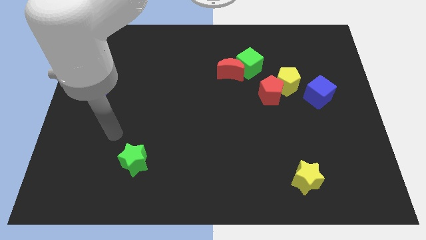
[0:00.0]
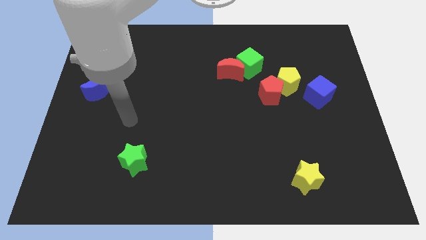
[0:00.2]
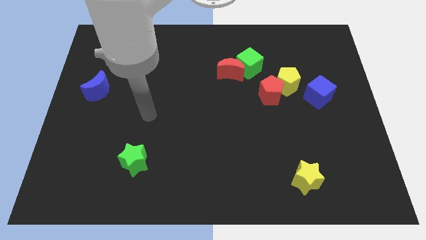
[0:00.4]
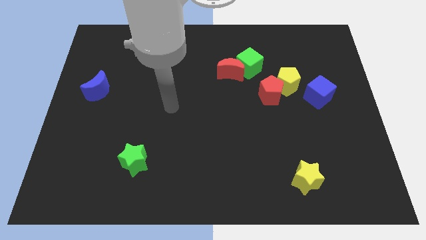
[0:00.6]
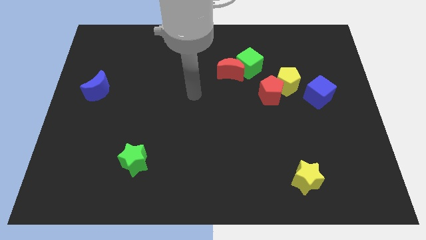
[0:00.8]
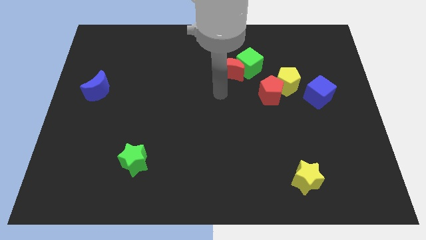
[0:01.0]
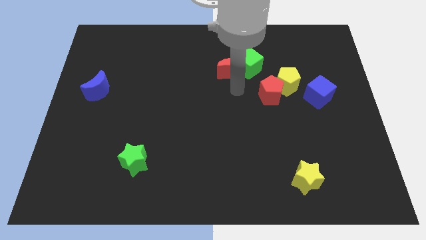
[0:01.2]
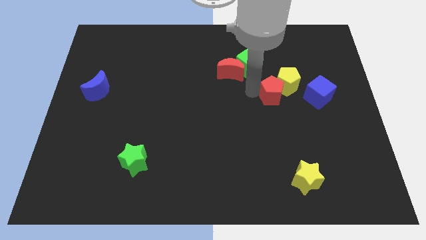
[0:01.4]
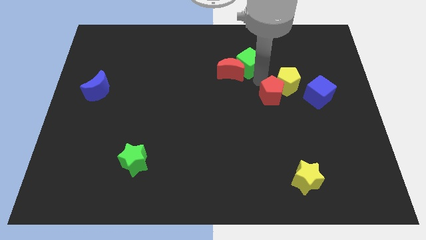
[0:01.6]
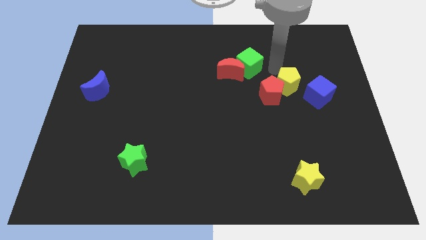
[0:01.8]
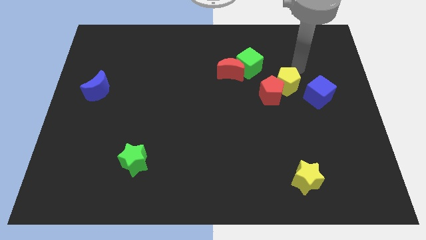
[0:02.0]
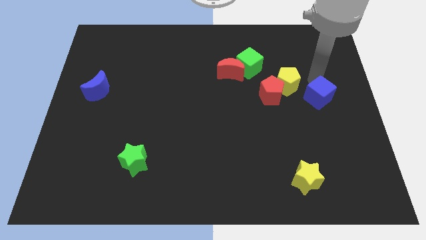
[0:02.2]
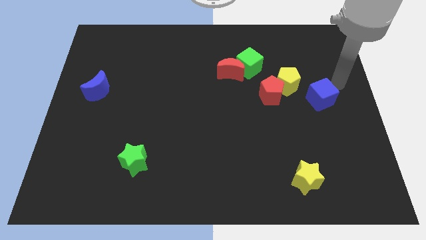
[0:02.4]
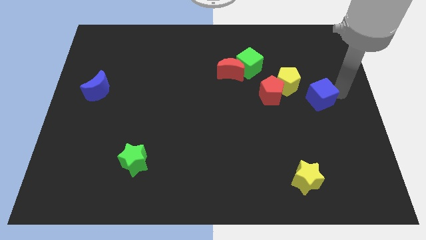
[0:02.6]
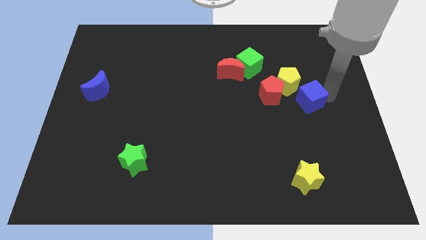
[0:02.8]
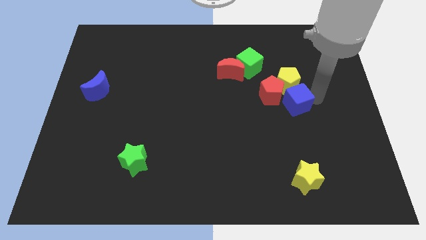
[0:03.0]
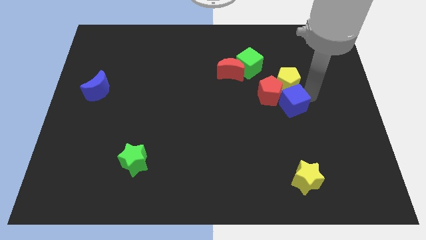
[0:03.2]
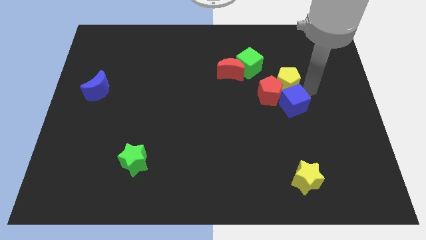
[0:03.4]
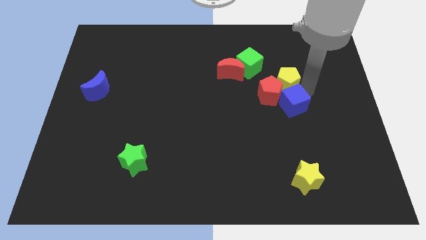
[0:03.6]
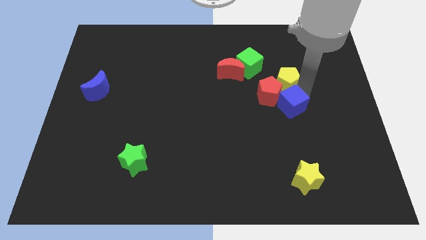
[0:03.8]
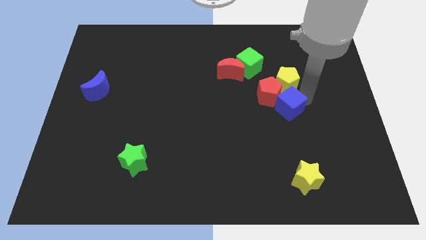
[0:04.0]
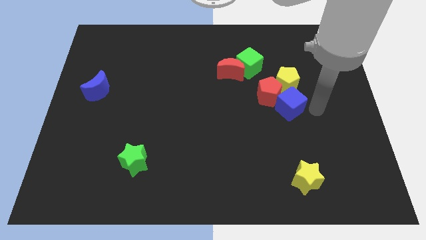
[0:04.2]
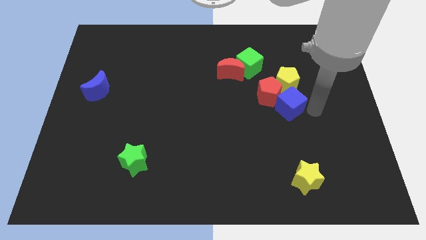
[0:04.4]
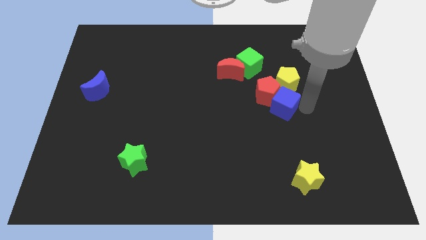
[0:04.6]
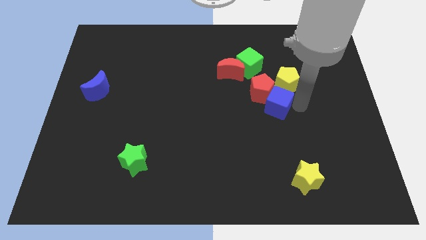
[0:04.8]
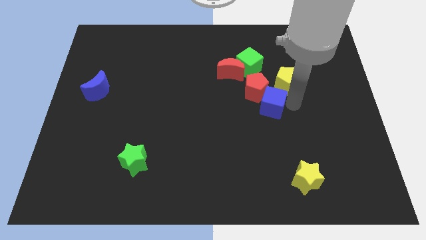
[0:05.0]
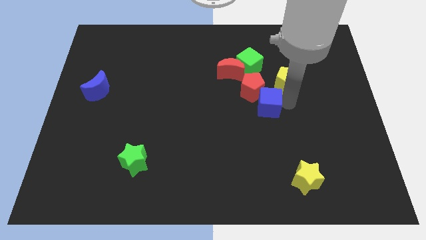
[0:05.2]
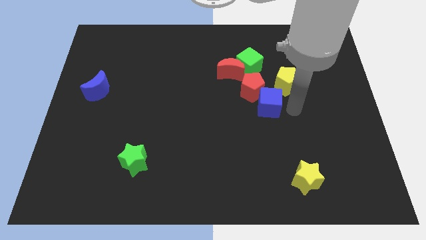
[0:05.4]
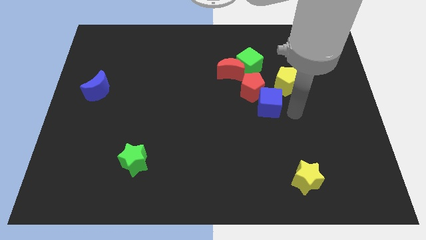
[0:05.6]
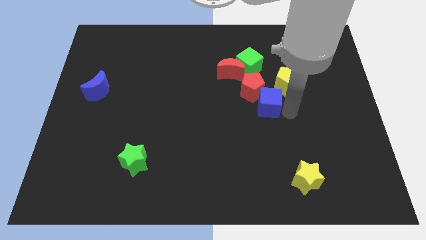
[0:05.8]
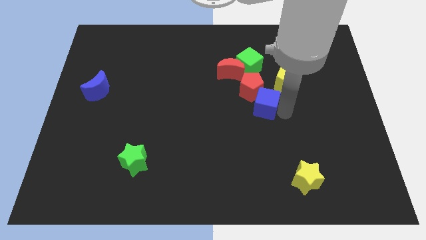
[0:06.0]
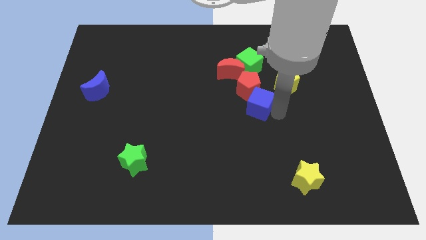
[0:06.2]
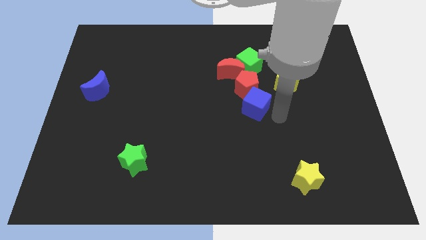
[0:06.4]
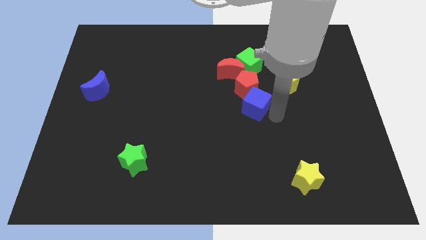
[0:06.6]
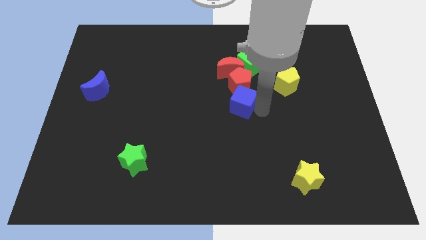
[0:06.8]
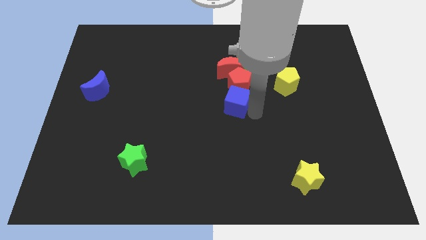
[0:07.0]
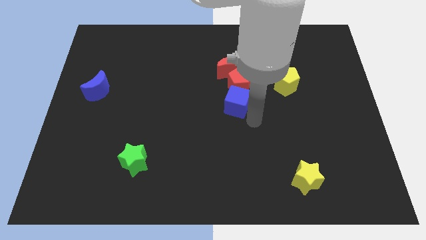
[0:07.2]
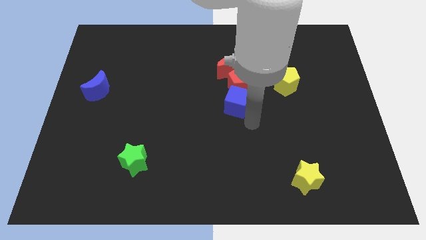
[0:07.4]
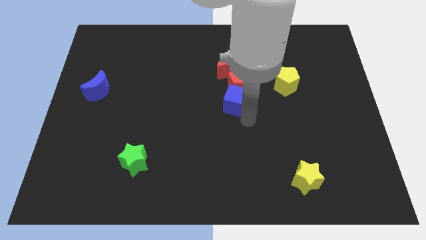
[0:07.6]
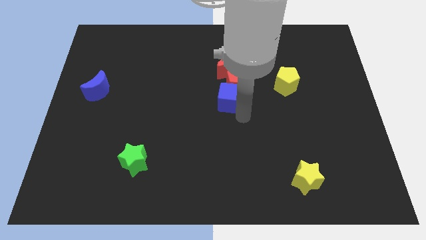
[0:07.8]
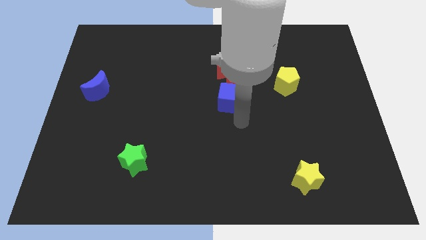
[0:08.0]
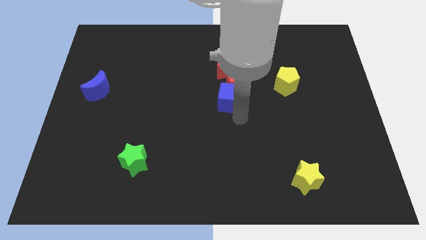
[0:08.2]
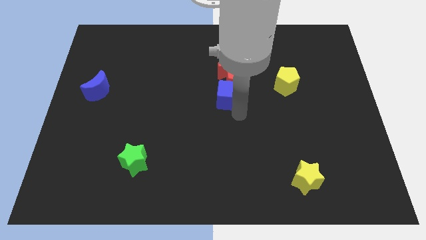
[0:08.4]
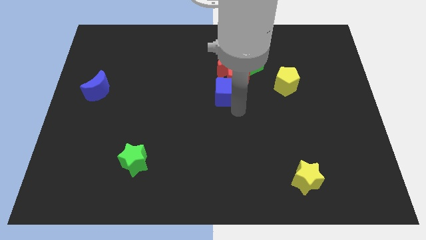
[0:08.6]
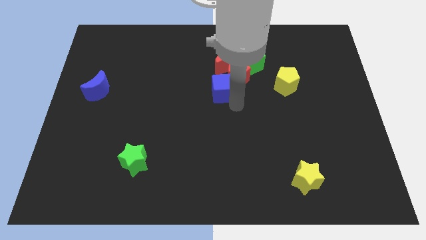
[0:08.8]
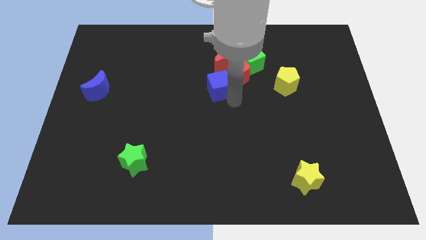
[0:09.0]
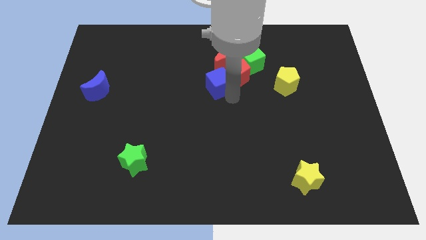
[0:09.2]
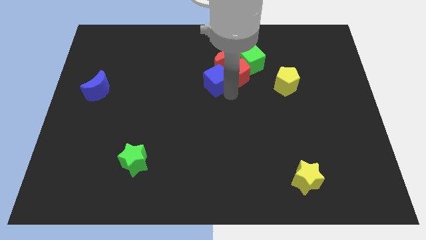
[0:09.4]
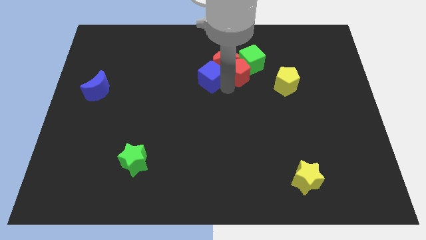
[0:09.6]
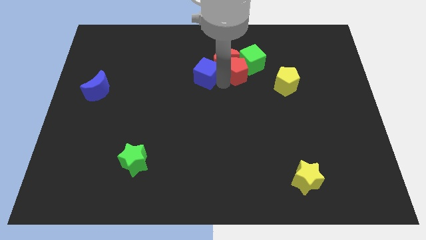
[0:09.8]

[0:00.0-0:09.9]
move the blue cube left of the red moon

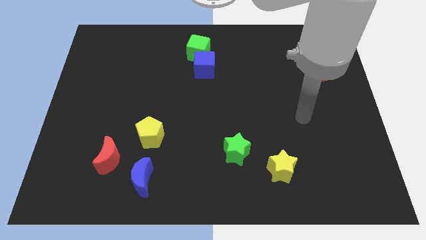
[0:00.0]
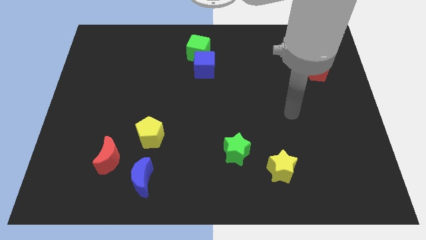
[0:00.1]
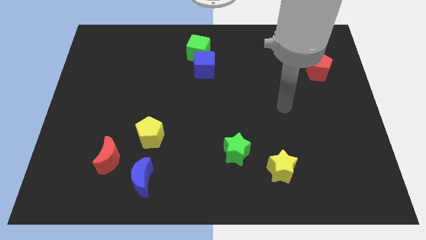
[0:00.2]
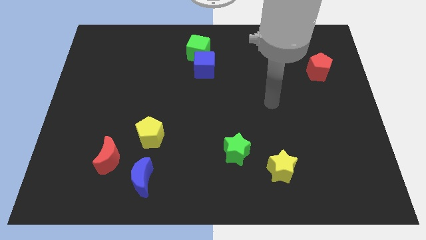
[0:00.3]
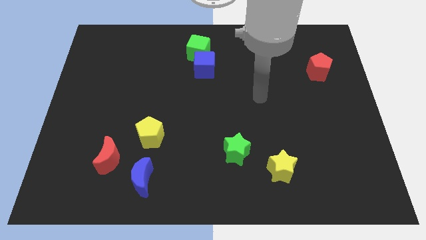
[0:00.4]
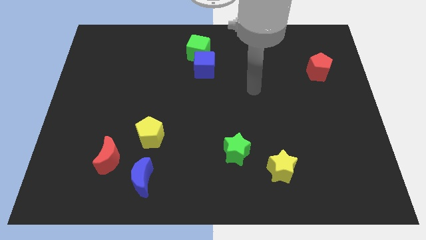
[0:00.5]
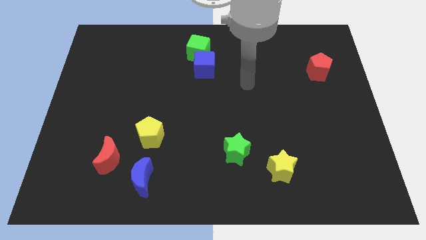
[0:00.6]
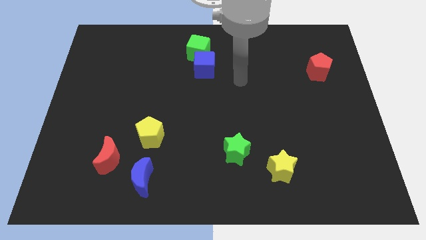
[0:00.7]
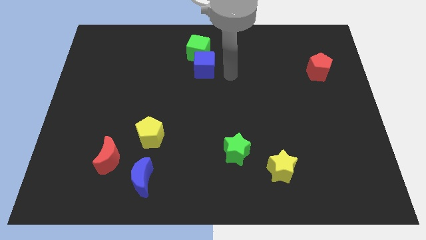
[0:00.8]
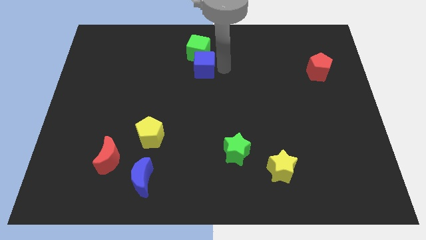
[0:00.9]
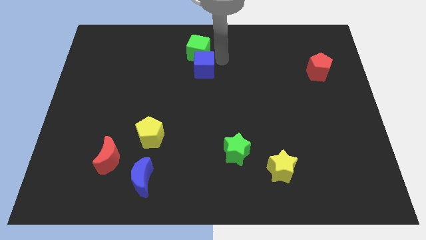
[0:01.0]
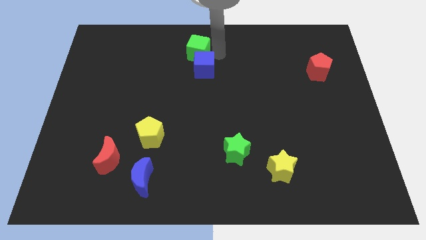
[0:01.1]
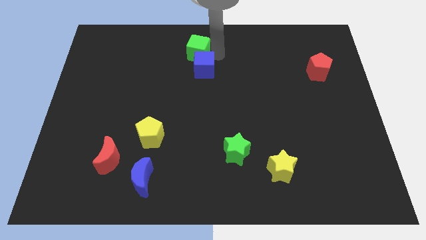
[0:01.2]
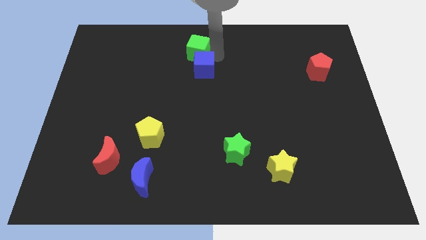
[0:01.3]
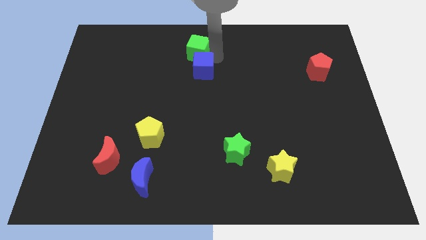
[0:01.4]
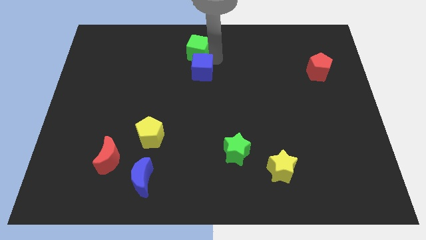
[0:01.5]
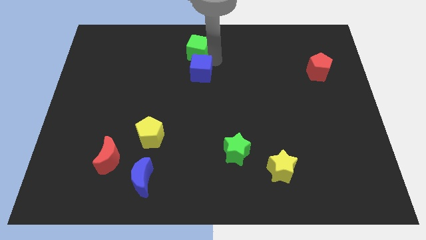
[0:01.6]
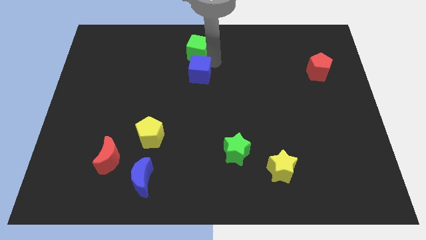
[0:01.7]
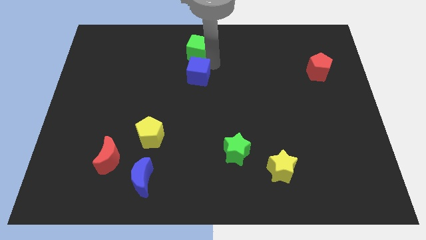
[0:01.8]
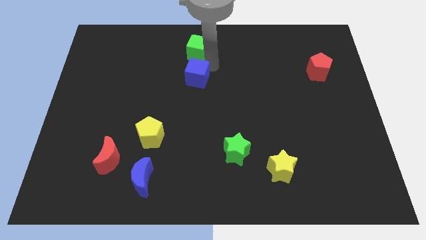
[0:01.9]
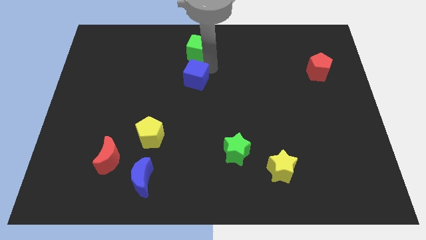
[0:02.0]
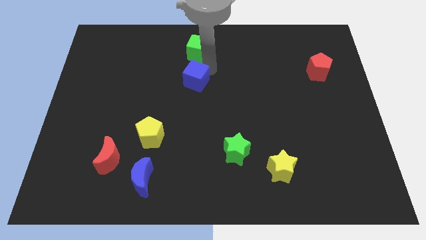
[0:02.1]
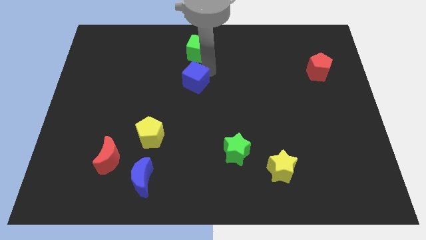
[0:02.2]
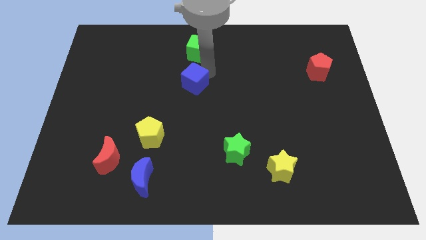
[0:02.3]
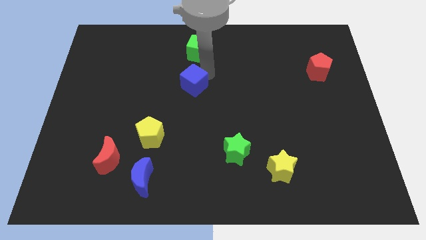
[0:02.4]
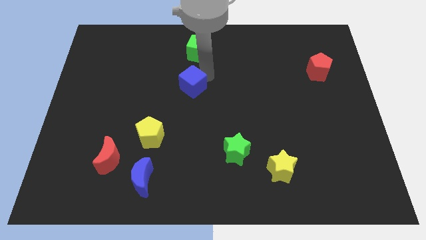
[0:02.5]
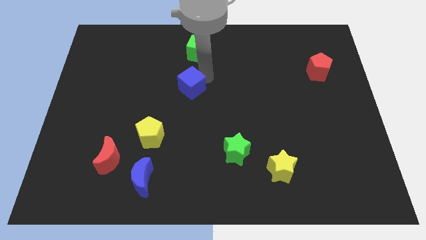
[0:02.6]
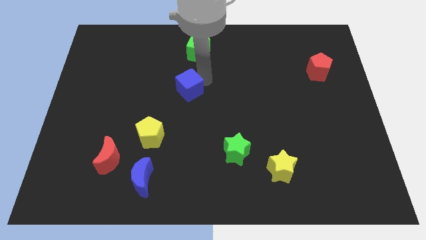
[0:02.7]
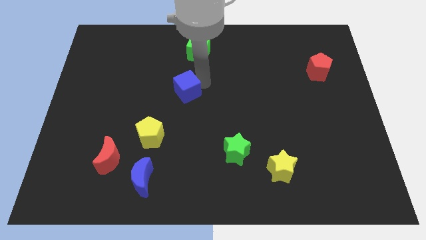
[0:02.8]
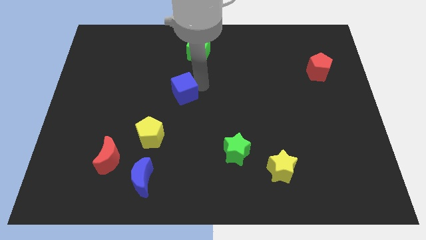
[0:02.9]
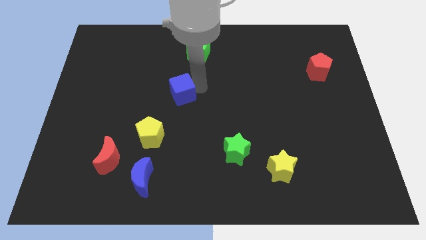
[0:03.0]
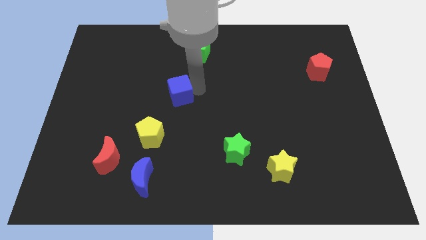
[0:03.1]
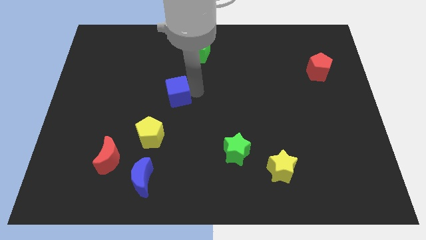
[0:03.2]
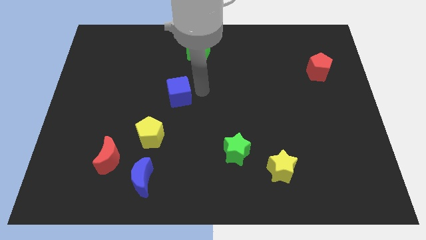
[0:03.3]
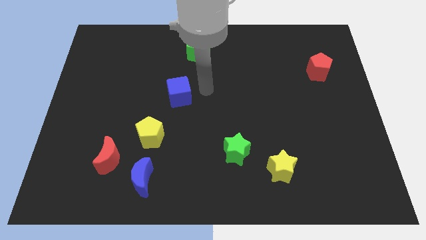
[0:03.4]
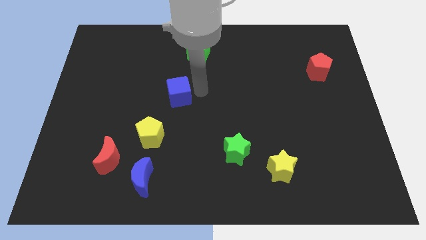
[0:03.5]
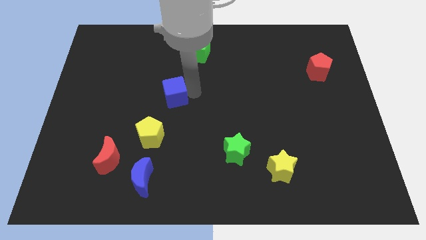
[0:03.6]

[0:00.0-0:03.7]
put the blue cube above the yellow pentagon
